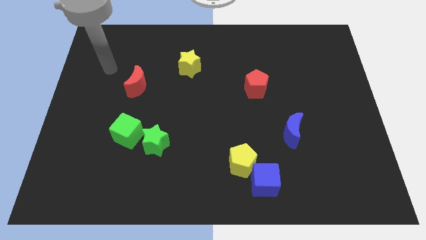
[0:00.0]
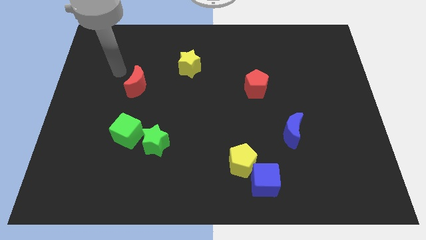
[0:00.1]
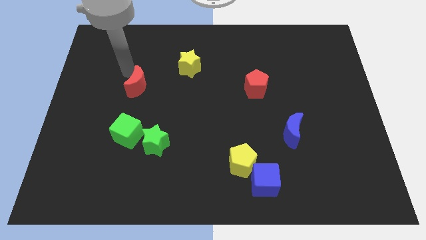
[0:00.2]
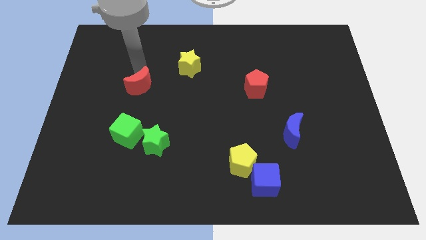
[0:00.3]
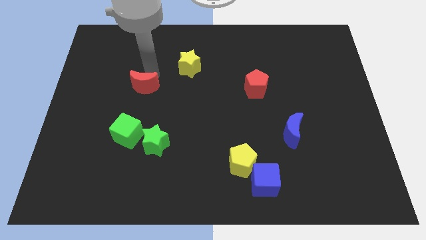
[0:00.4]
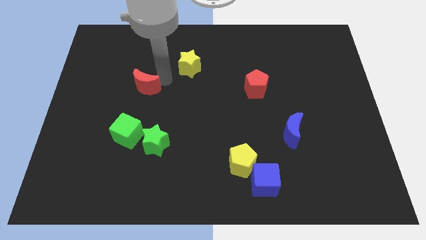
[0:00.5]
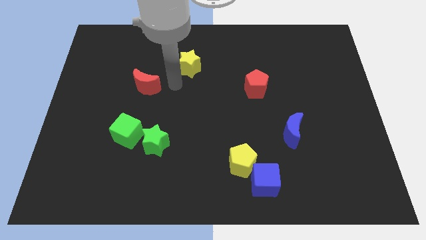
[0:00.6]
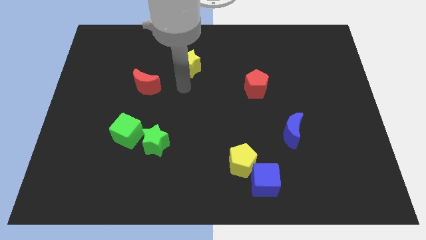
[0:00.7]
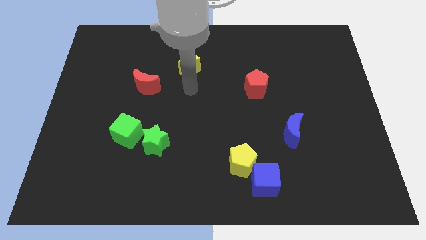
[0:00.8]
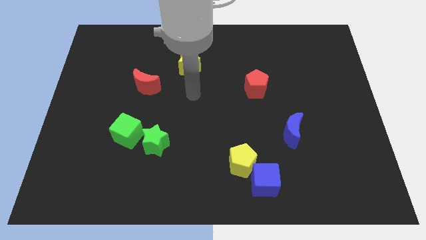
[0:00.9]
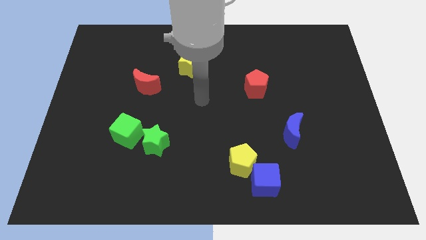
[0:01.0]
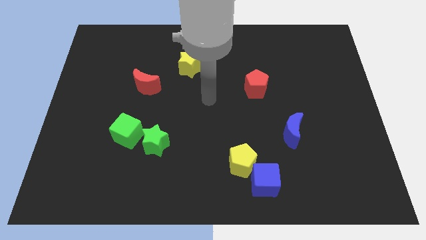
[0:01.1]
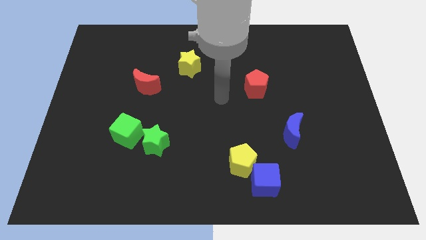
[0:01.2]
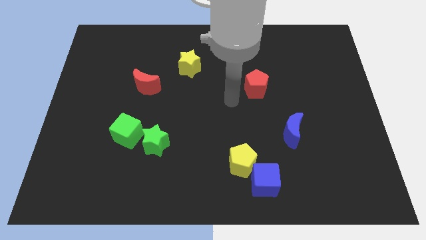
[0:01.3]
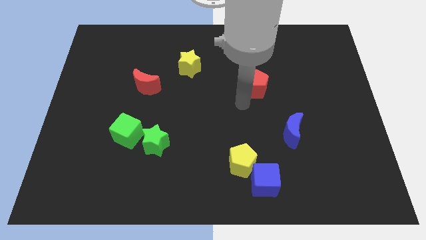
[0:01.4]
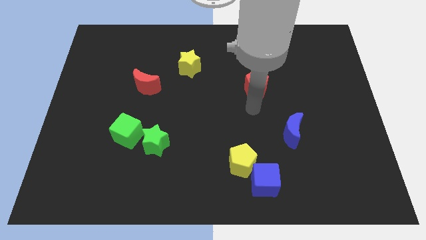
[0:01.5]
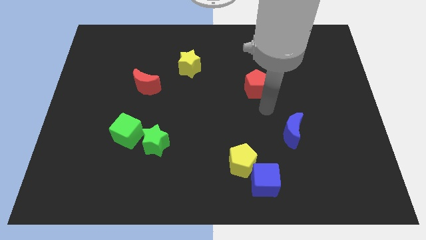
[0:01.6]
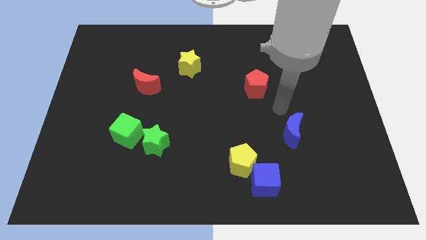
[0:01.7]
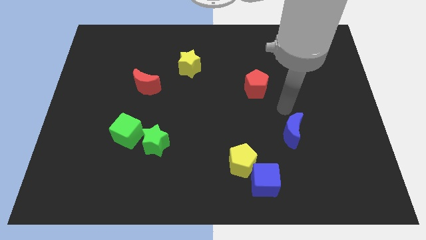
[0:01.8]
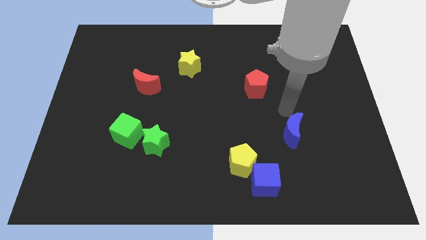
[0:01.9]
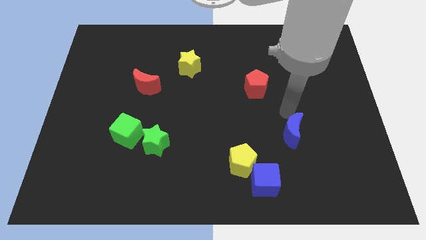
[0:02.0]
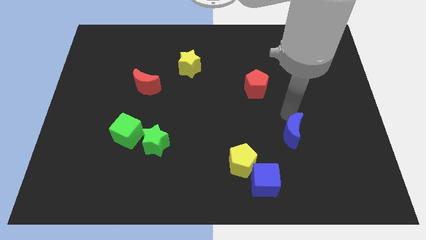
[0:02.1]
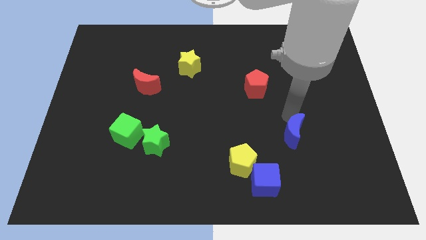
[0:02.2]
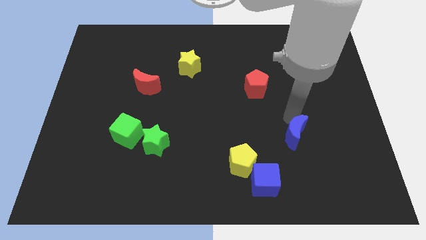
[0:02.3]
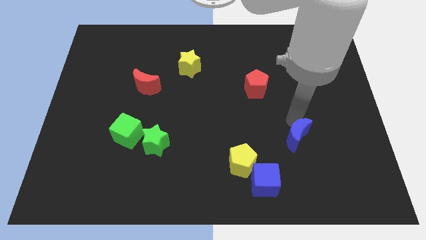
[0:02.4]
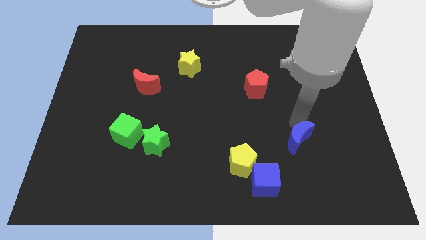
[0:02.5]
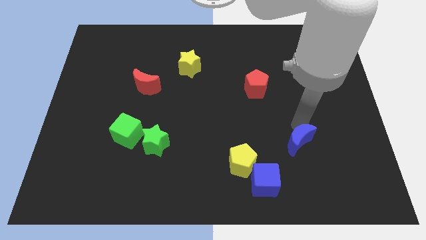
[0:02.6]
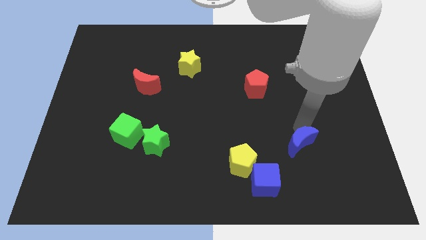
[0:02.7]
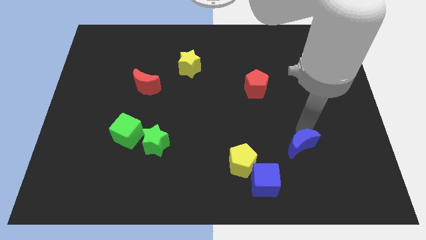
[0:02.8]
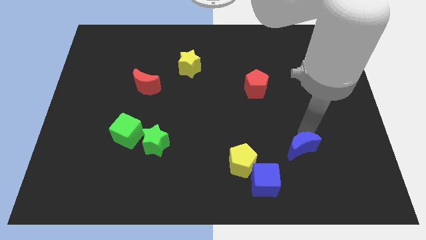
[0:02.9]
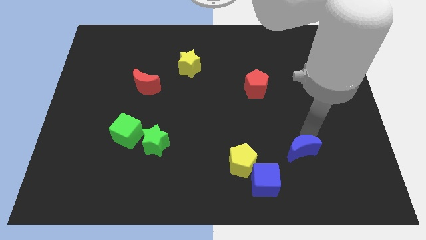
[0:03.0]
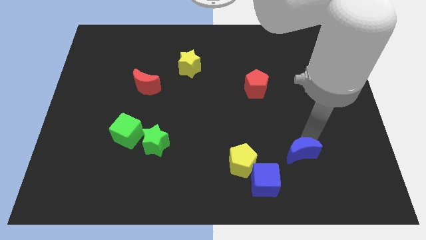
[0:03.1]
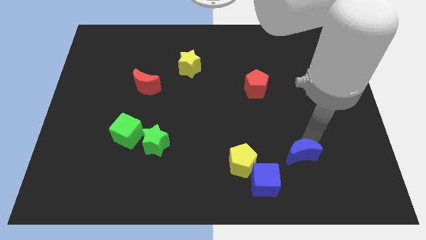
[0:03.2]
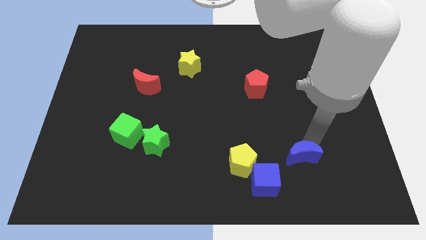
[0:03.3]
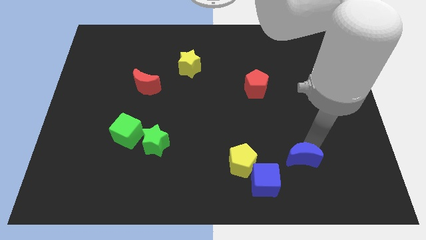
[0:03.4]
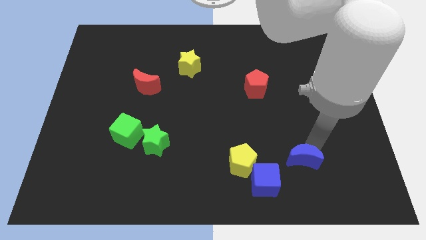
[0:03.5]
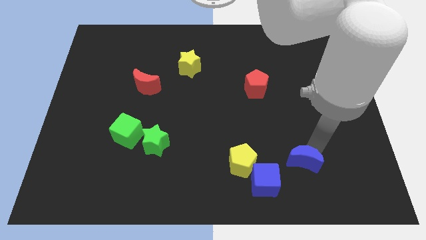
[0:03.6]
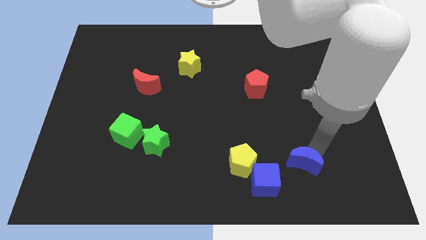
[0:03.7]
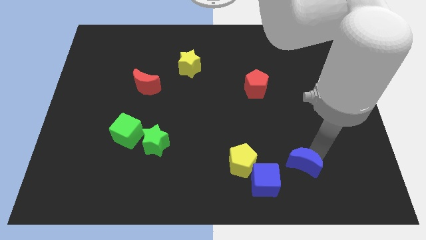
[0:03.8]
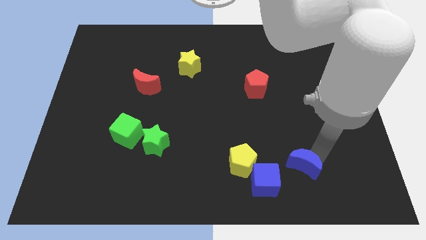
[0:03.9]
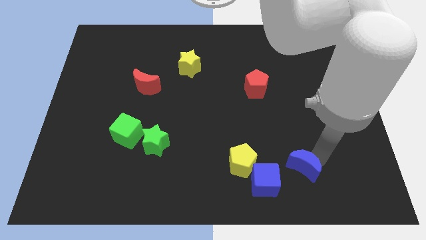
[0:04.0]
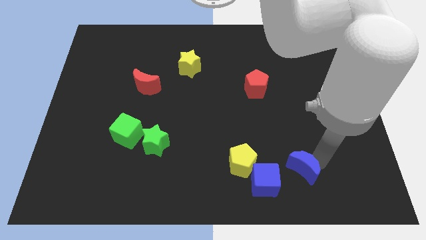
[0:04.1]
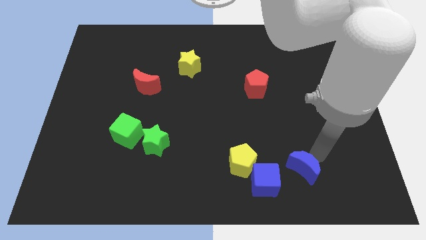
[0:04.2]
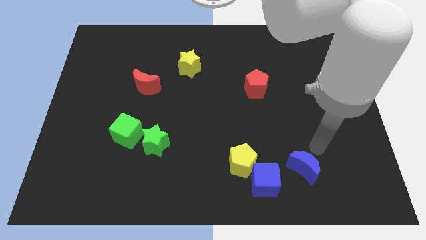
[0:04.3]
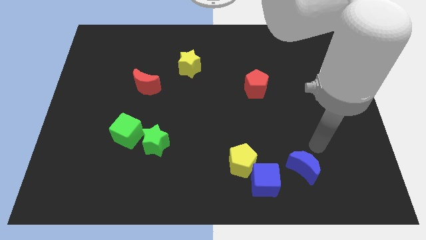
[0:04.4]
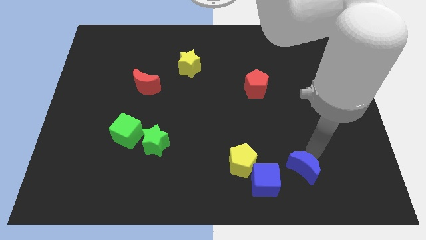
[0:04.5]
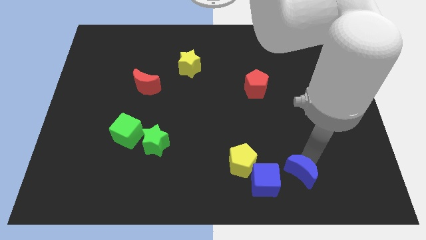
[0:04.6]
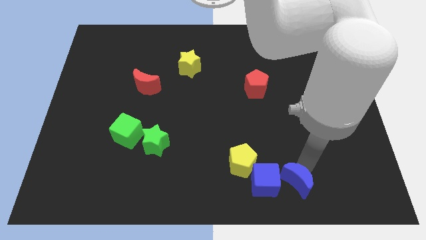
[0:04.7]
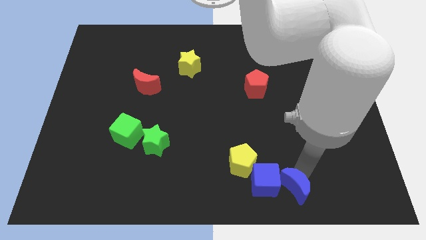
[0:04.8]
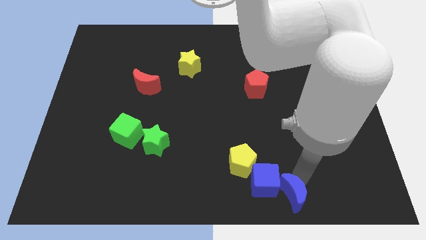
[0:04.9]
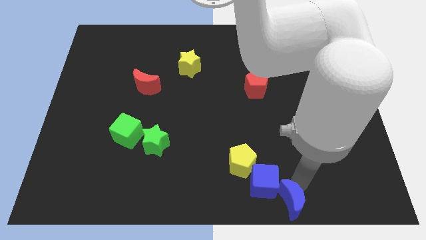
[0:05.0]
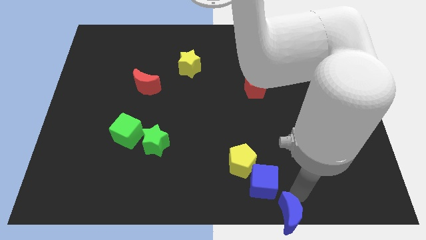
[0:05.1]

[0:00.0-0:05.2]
move the blue moon to the bottom

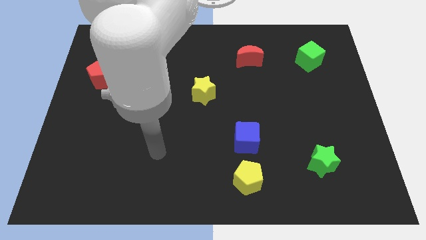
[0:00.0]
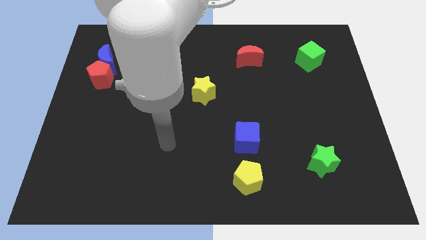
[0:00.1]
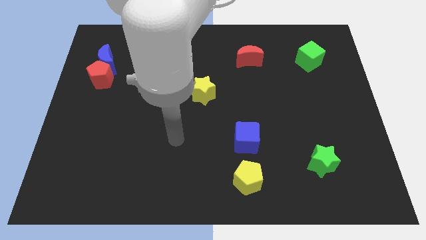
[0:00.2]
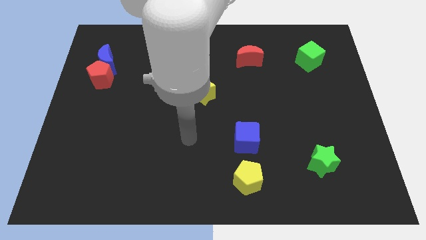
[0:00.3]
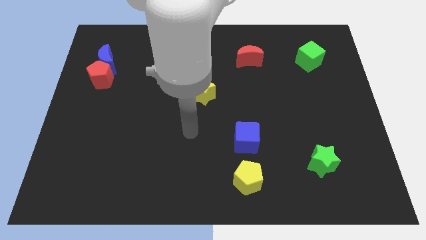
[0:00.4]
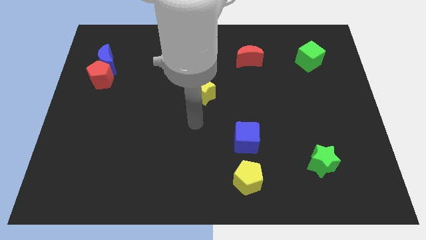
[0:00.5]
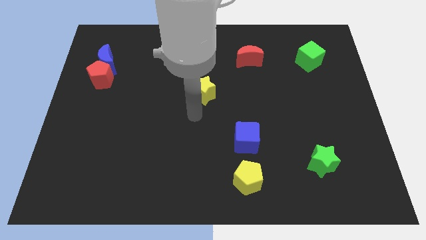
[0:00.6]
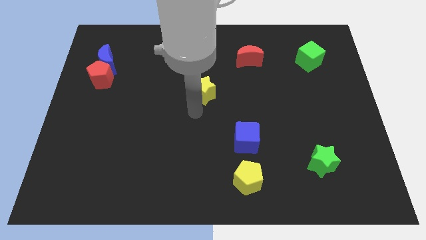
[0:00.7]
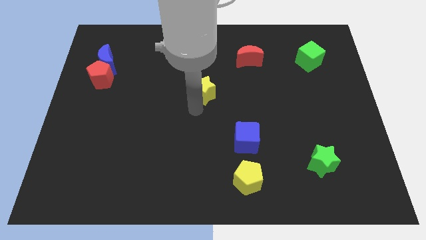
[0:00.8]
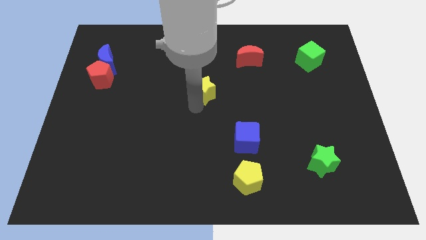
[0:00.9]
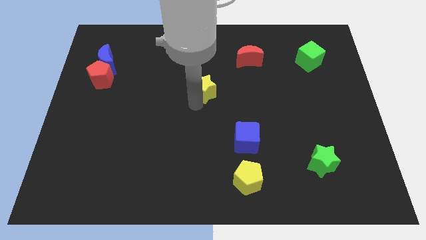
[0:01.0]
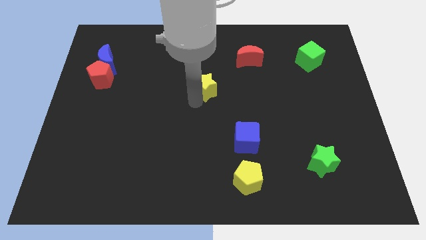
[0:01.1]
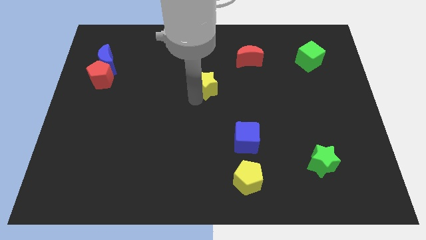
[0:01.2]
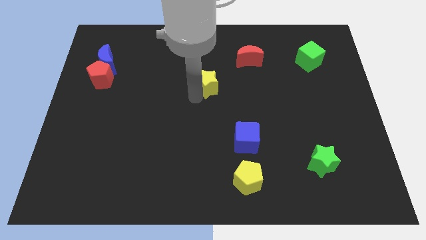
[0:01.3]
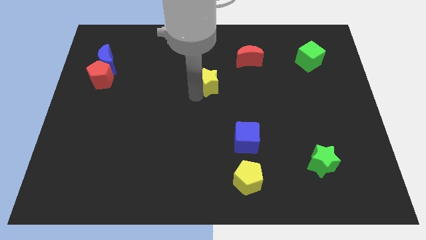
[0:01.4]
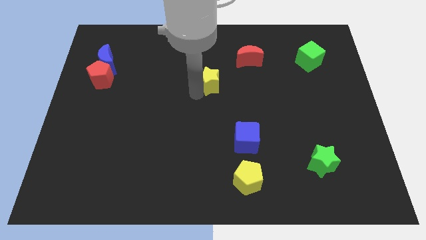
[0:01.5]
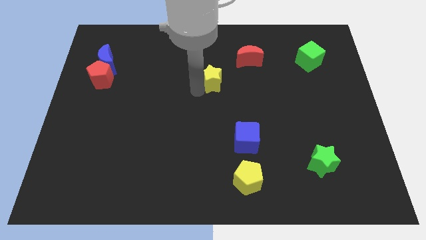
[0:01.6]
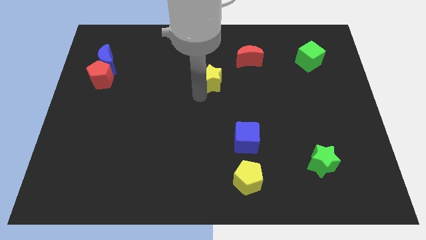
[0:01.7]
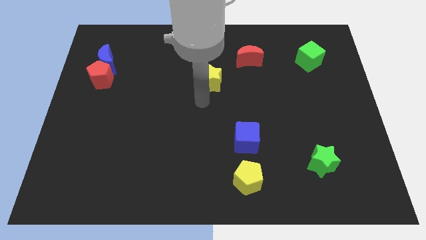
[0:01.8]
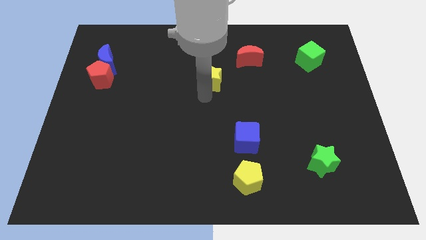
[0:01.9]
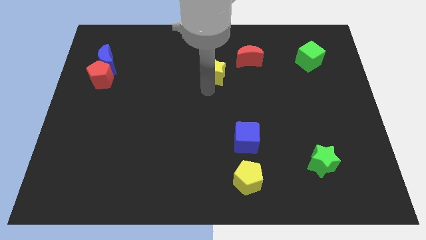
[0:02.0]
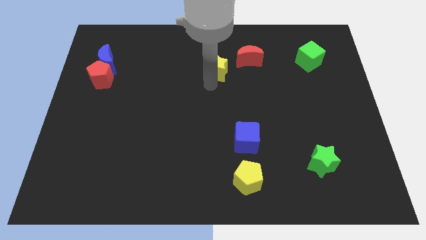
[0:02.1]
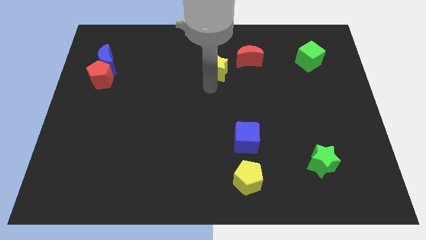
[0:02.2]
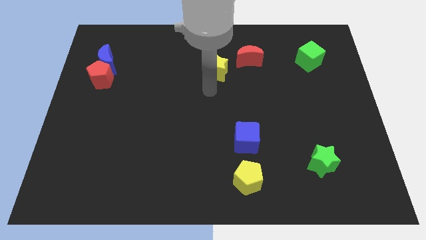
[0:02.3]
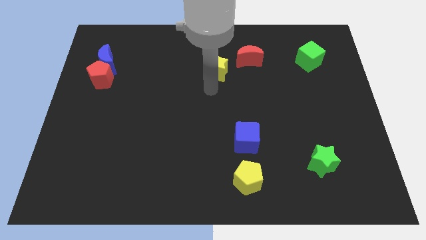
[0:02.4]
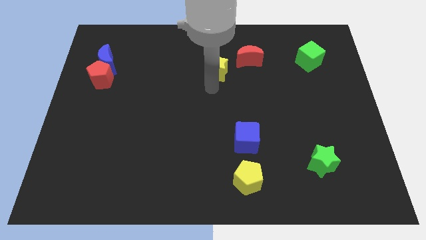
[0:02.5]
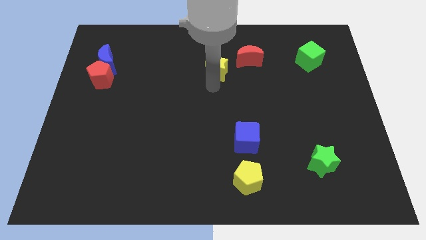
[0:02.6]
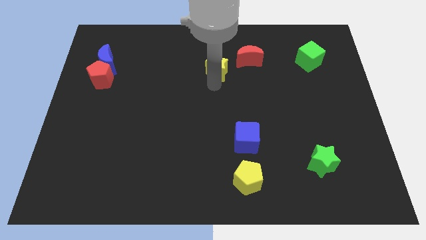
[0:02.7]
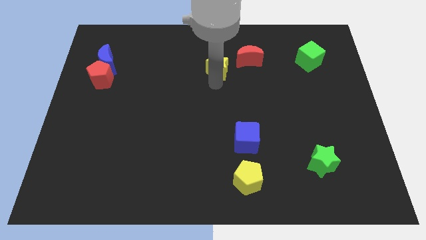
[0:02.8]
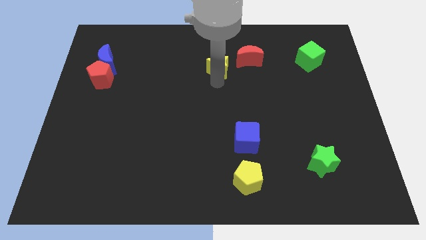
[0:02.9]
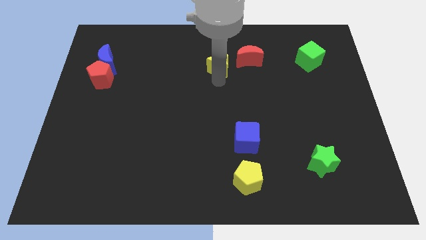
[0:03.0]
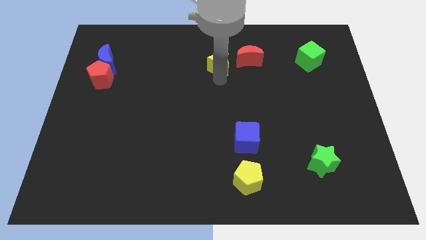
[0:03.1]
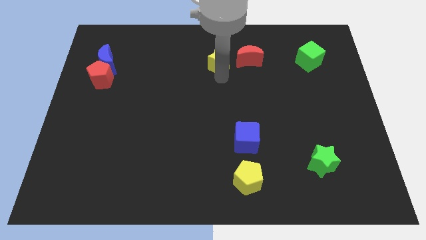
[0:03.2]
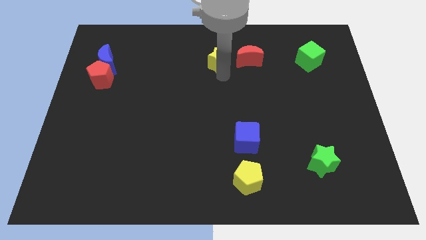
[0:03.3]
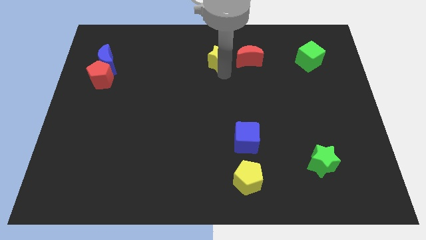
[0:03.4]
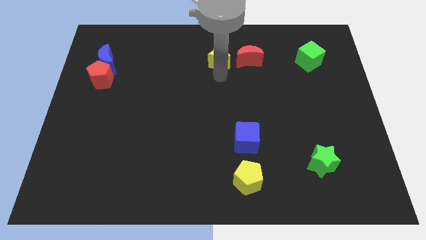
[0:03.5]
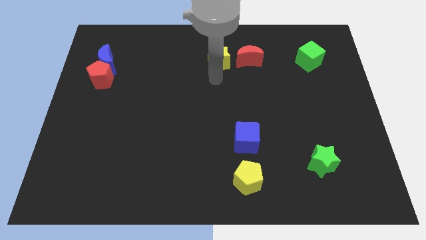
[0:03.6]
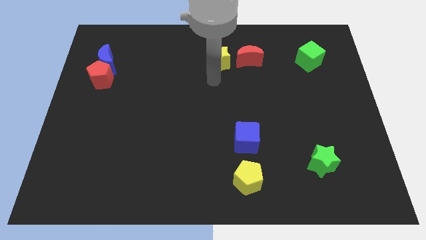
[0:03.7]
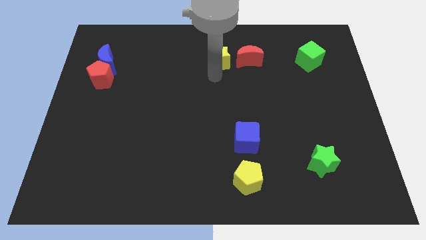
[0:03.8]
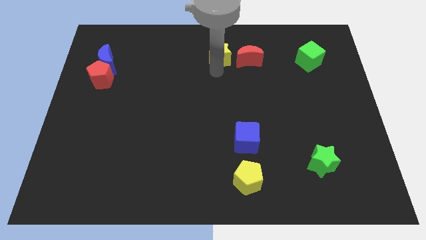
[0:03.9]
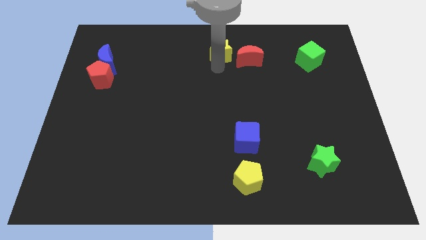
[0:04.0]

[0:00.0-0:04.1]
slide the yellow star to the towards your base
